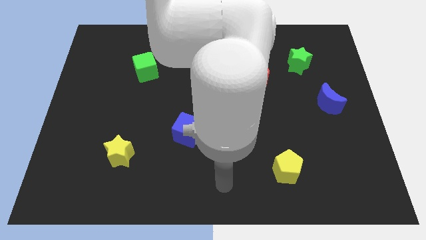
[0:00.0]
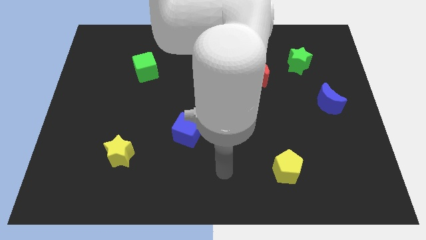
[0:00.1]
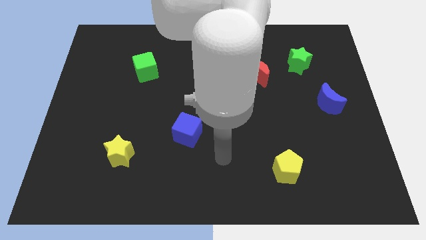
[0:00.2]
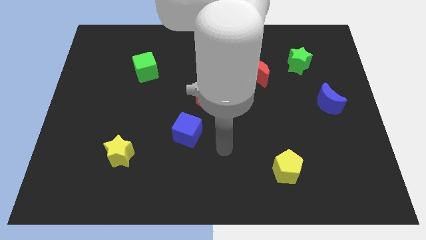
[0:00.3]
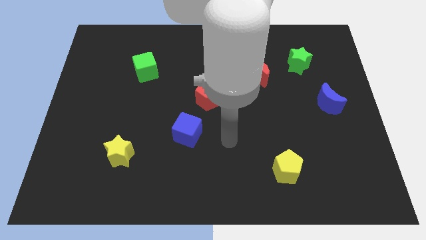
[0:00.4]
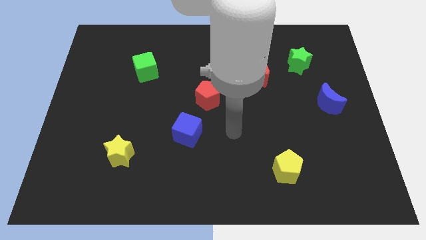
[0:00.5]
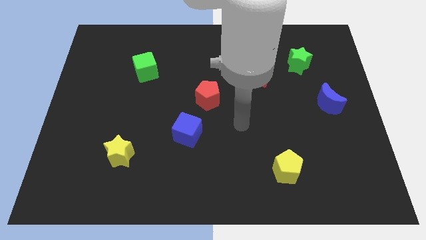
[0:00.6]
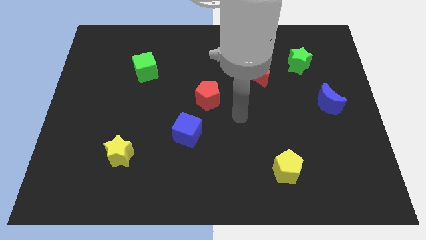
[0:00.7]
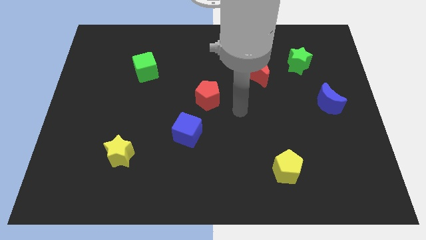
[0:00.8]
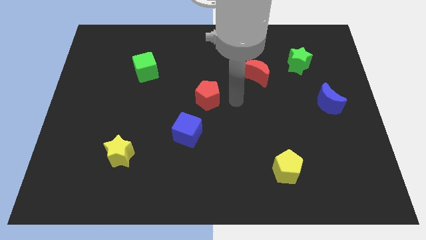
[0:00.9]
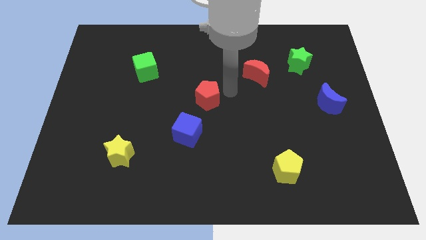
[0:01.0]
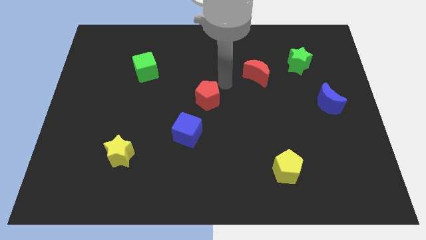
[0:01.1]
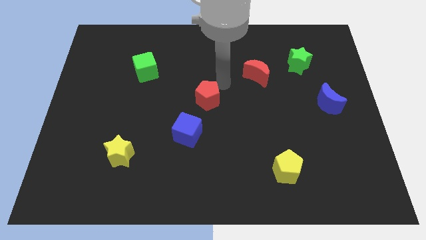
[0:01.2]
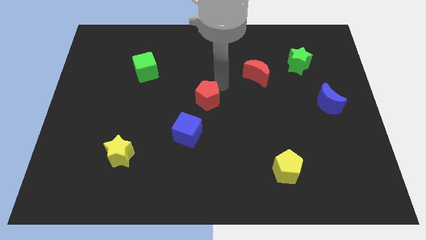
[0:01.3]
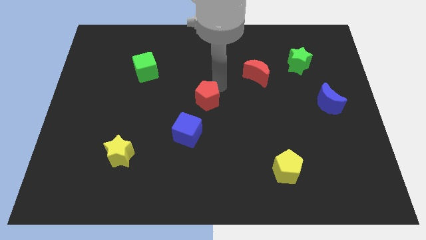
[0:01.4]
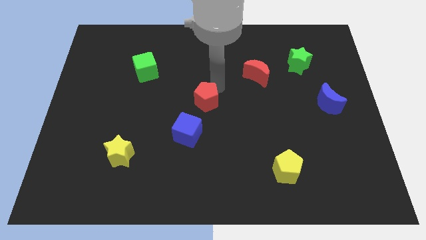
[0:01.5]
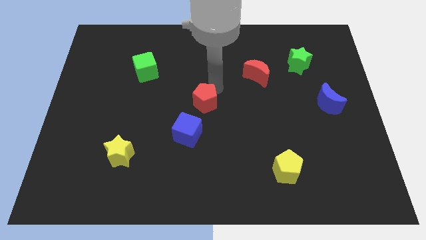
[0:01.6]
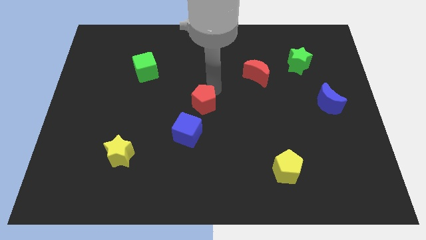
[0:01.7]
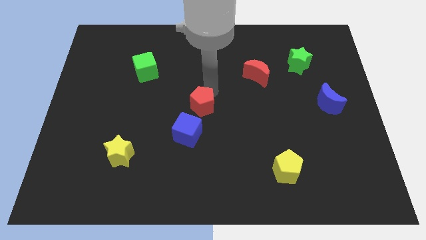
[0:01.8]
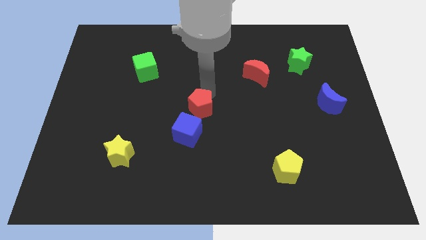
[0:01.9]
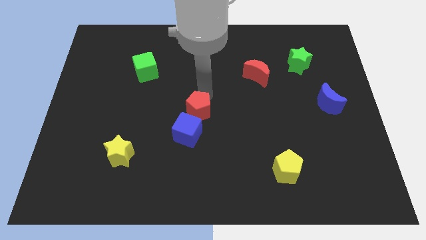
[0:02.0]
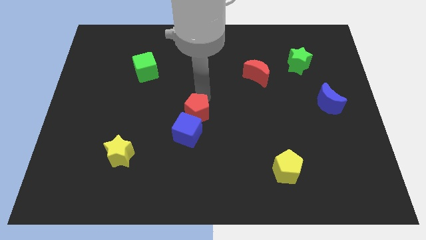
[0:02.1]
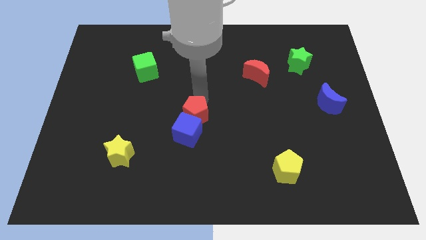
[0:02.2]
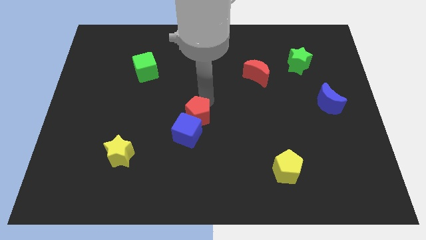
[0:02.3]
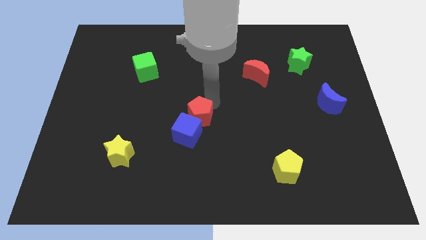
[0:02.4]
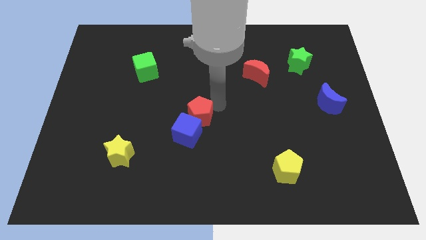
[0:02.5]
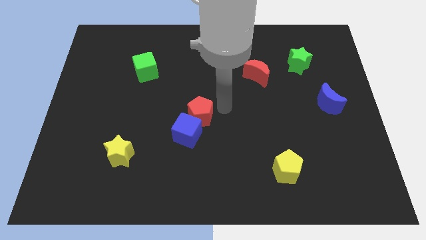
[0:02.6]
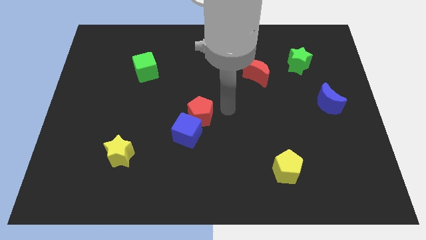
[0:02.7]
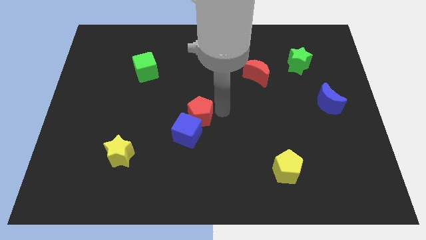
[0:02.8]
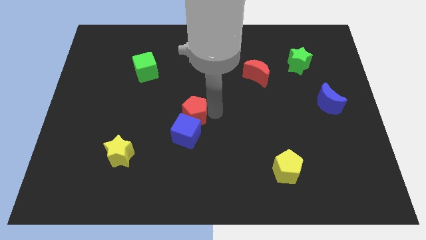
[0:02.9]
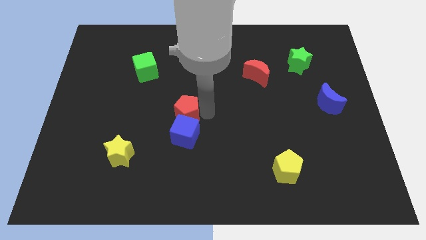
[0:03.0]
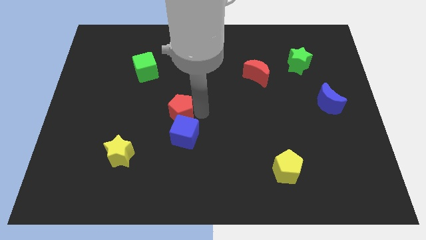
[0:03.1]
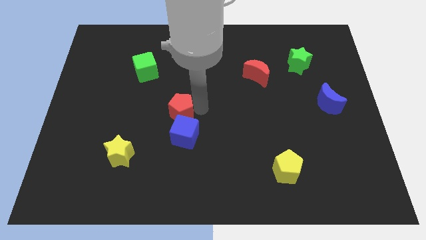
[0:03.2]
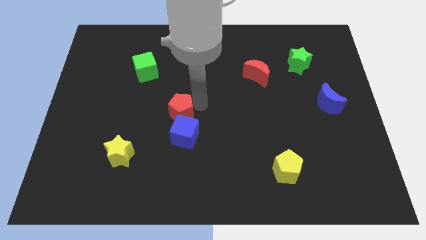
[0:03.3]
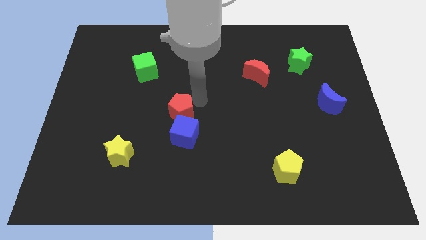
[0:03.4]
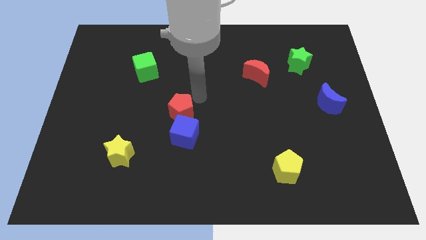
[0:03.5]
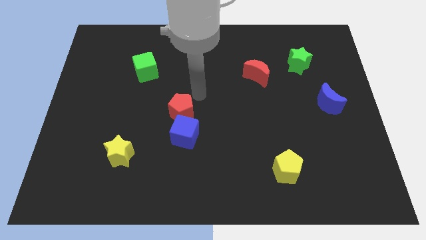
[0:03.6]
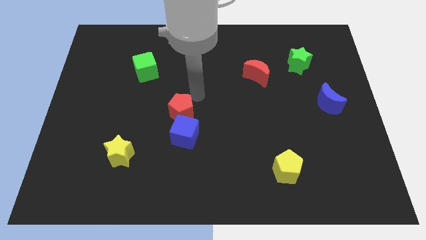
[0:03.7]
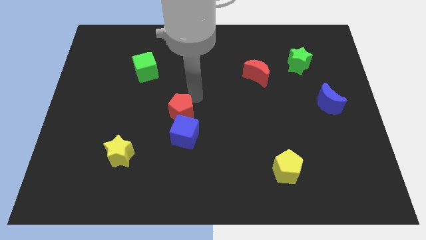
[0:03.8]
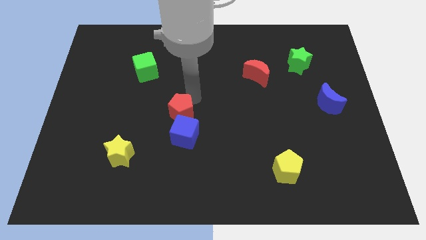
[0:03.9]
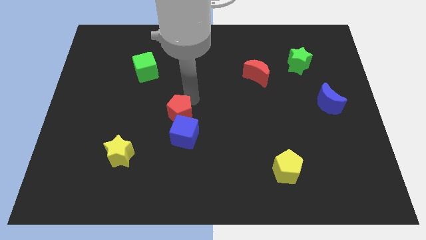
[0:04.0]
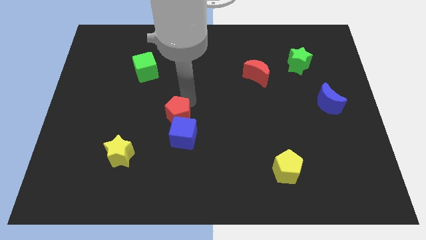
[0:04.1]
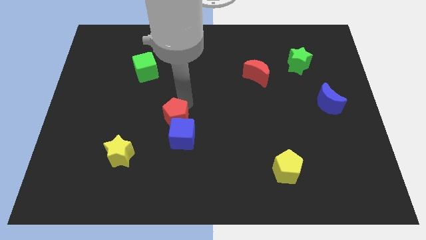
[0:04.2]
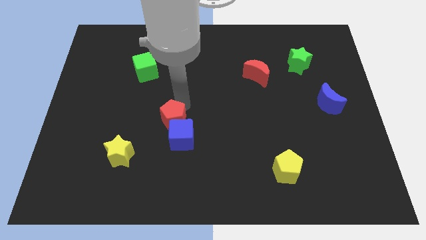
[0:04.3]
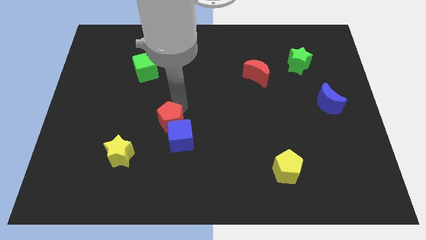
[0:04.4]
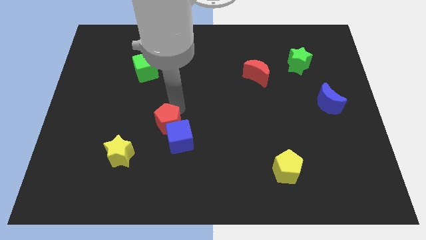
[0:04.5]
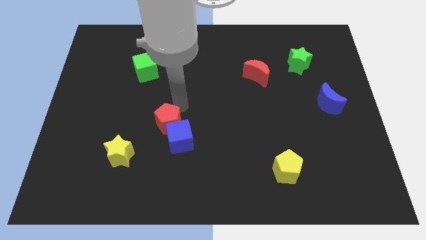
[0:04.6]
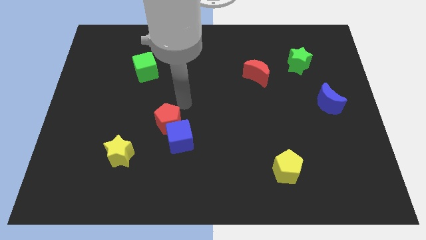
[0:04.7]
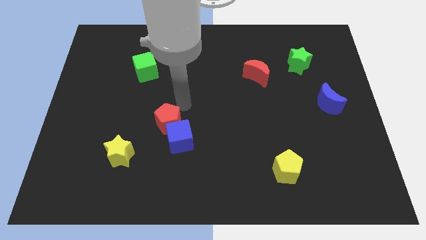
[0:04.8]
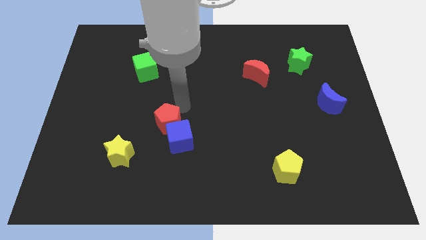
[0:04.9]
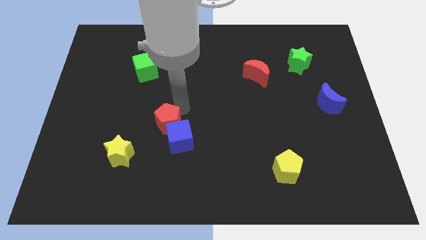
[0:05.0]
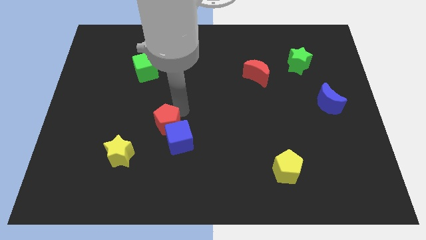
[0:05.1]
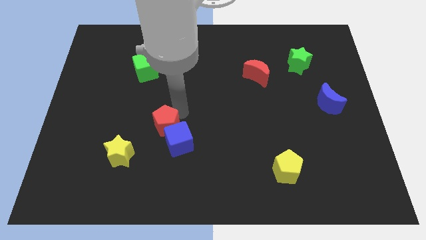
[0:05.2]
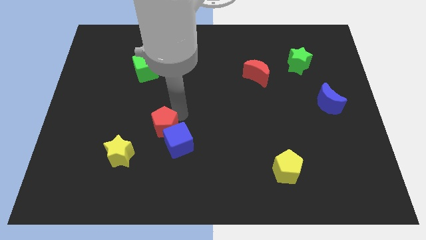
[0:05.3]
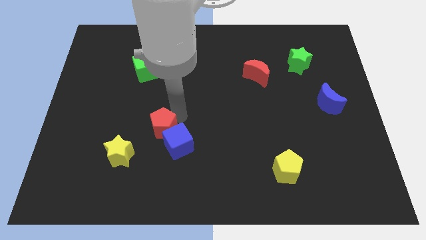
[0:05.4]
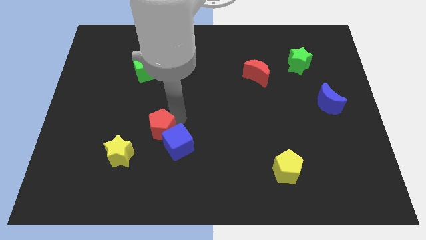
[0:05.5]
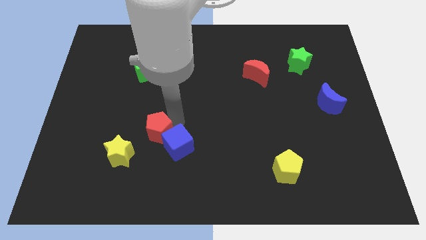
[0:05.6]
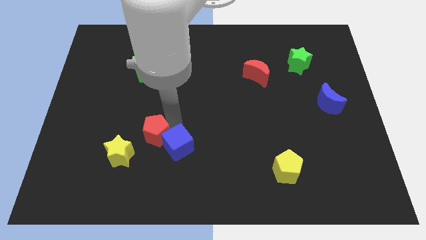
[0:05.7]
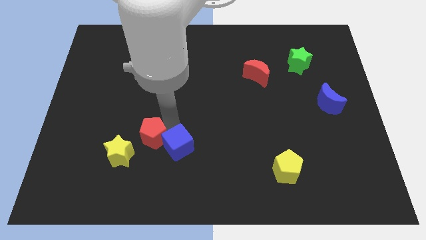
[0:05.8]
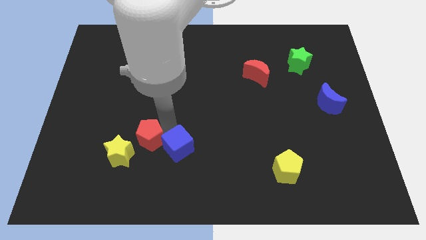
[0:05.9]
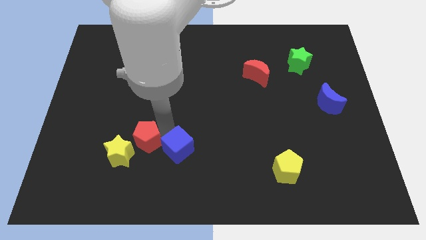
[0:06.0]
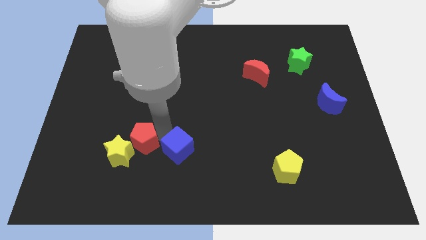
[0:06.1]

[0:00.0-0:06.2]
push the red pentagon towards the yellow star

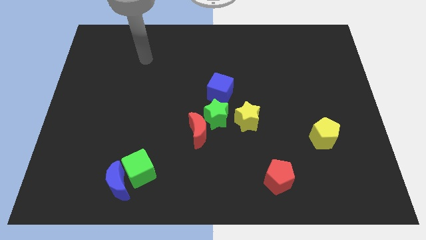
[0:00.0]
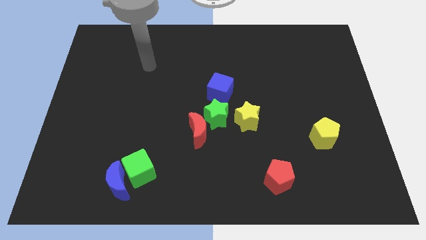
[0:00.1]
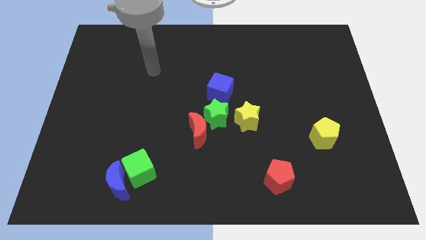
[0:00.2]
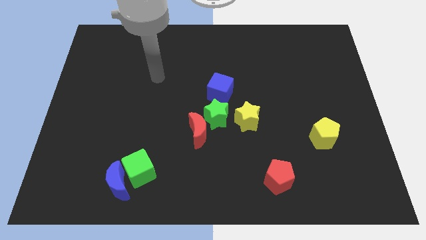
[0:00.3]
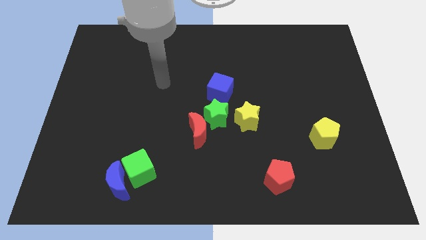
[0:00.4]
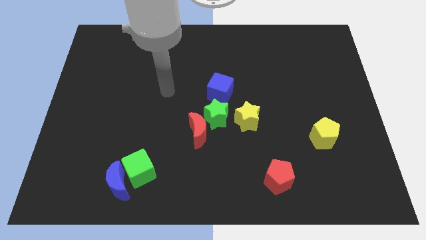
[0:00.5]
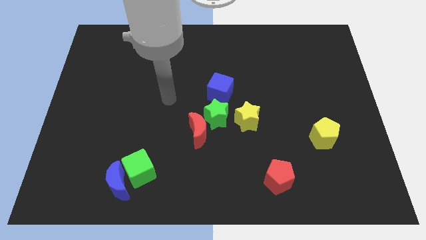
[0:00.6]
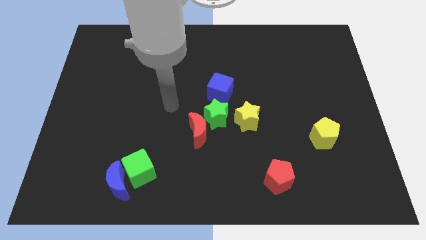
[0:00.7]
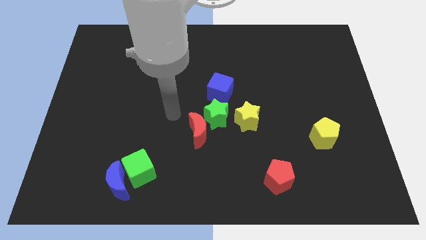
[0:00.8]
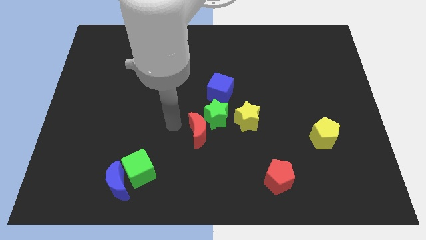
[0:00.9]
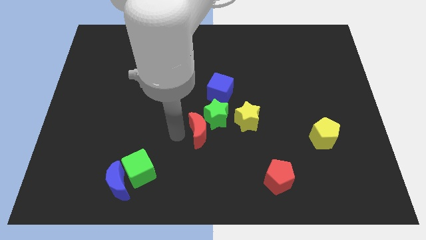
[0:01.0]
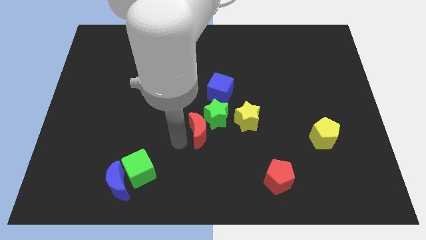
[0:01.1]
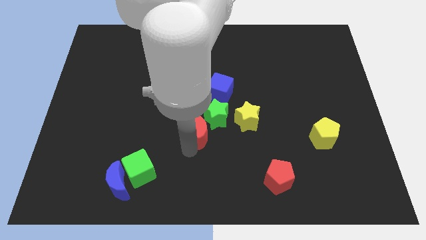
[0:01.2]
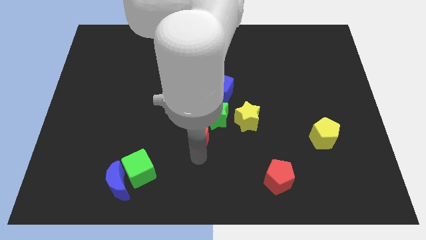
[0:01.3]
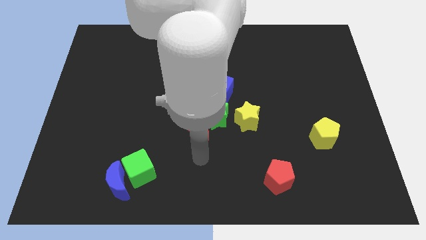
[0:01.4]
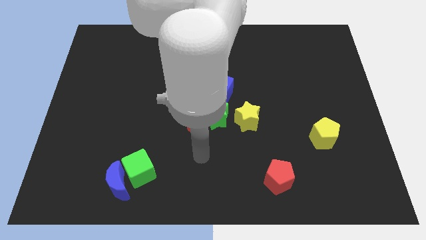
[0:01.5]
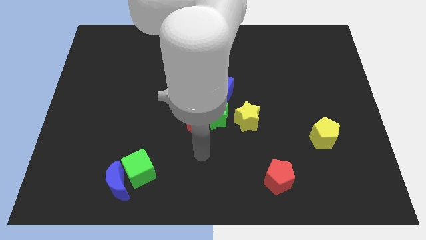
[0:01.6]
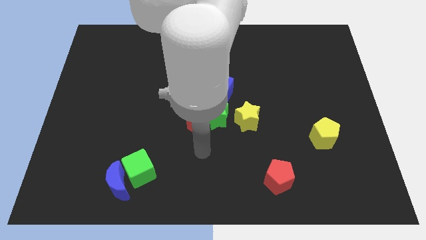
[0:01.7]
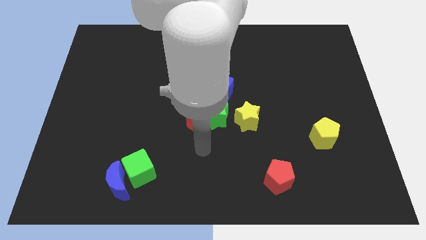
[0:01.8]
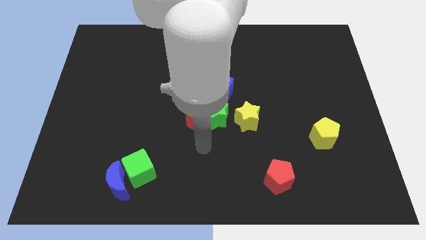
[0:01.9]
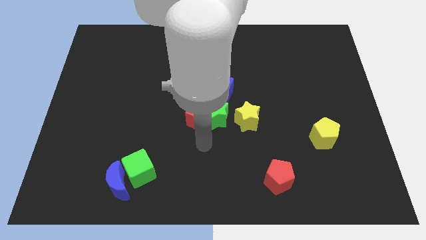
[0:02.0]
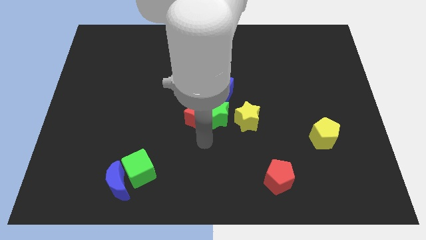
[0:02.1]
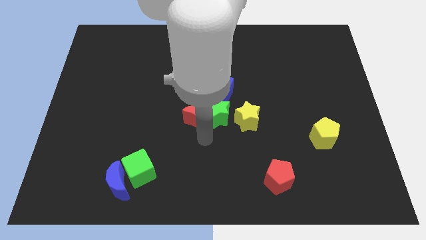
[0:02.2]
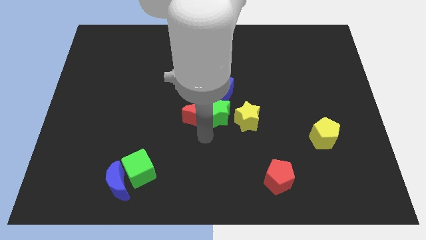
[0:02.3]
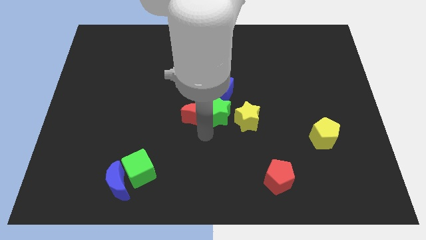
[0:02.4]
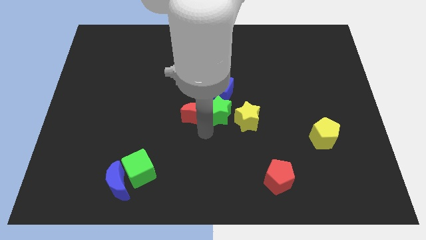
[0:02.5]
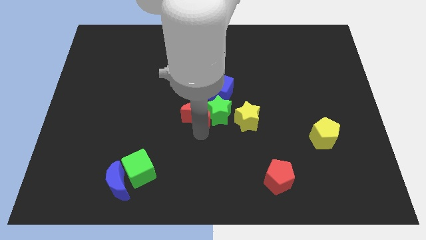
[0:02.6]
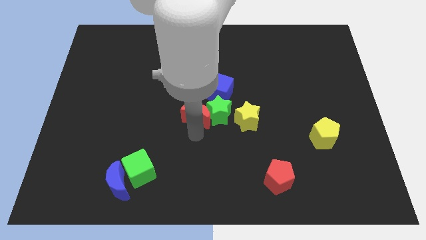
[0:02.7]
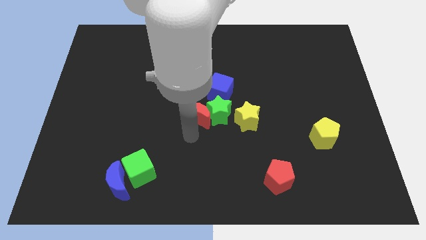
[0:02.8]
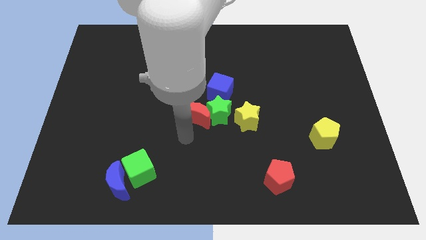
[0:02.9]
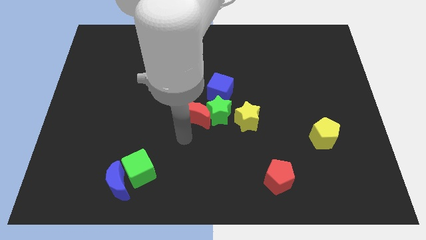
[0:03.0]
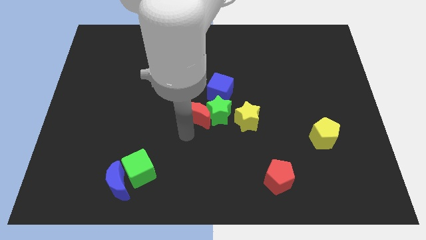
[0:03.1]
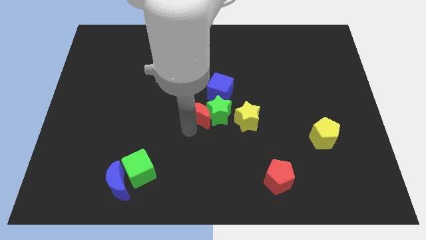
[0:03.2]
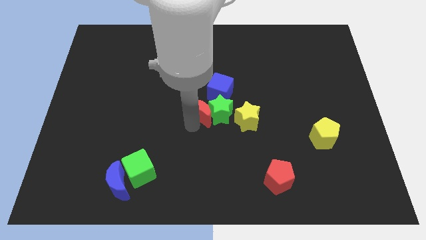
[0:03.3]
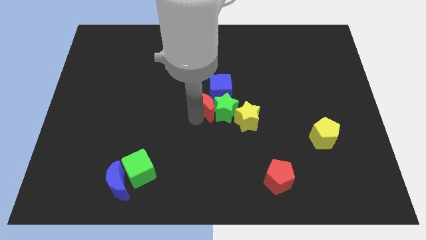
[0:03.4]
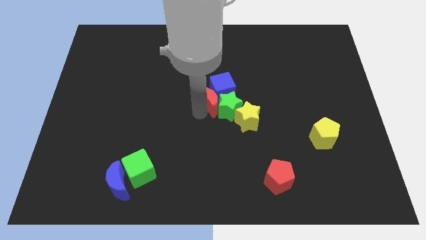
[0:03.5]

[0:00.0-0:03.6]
push the red moon next to the blue cube
